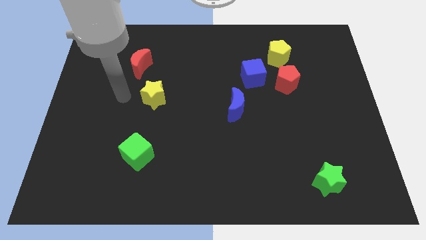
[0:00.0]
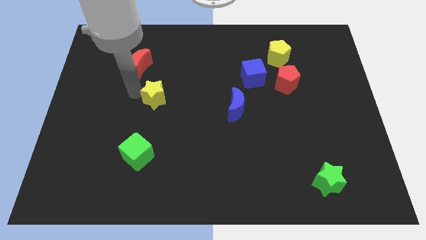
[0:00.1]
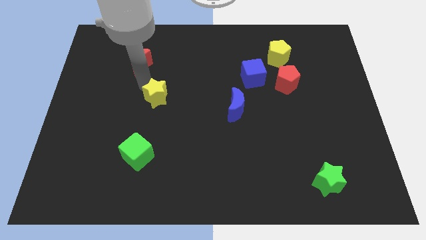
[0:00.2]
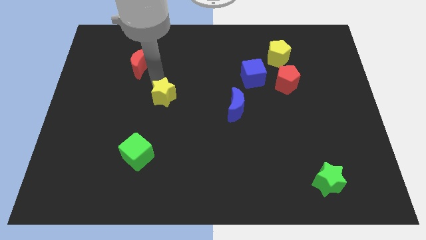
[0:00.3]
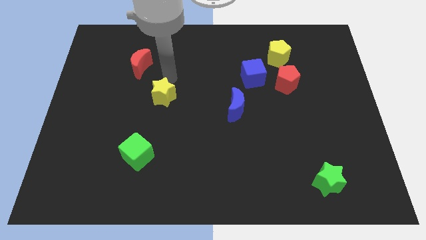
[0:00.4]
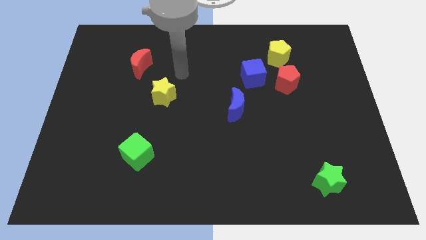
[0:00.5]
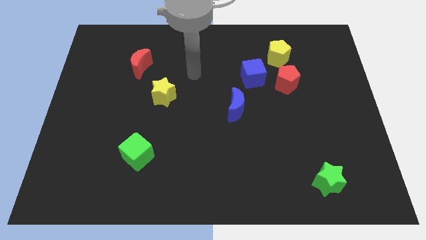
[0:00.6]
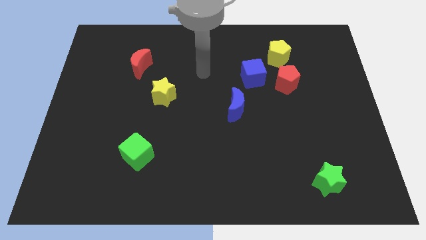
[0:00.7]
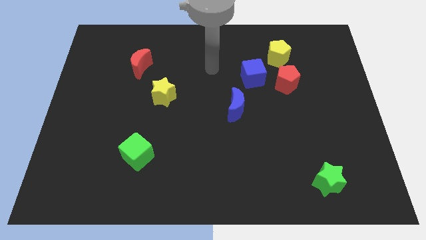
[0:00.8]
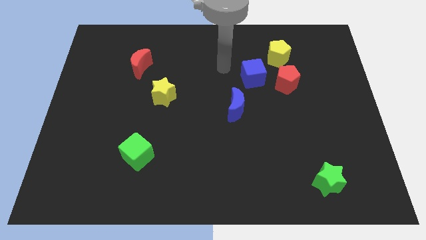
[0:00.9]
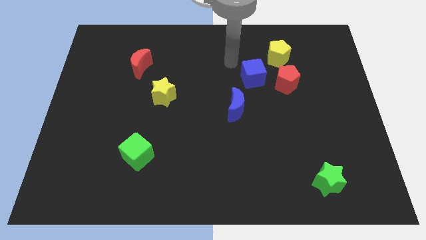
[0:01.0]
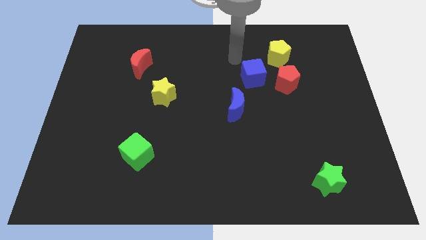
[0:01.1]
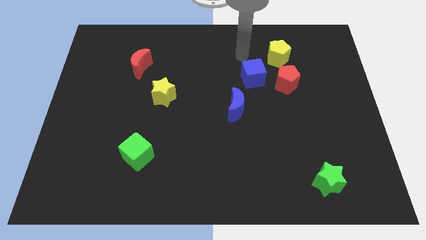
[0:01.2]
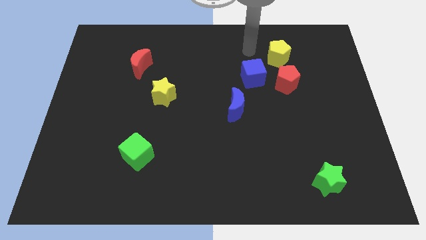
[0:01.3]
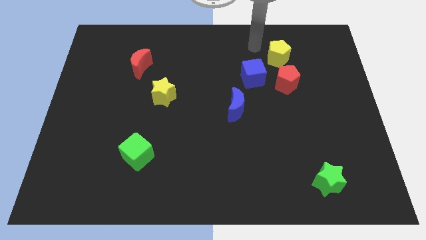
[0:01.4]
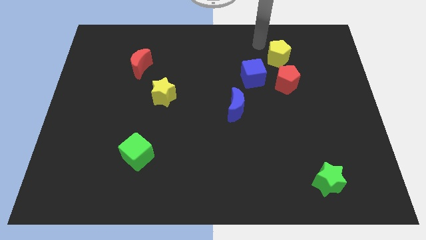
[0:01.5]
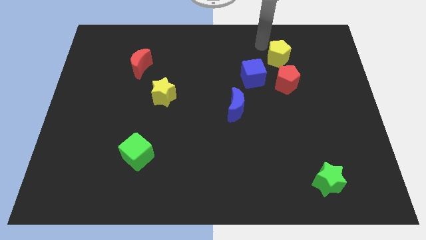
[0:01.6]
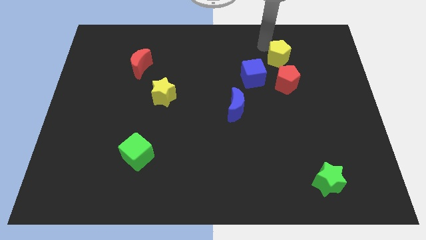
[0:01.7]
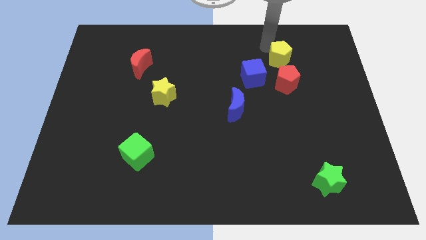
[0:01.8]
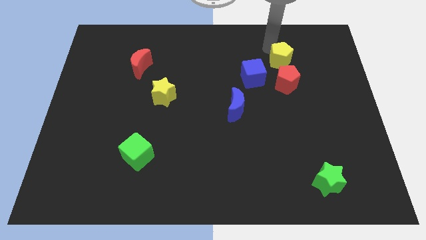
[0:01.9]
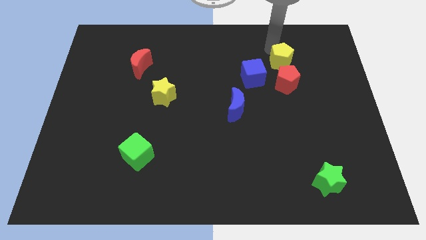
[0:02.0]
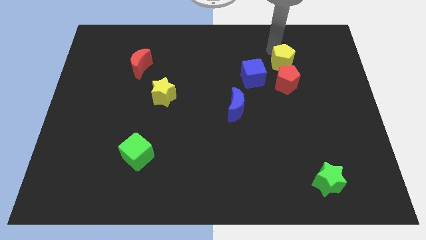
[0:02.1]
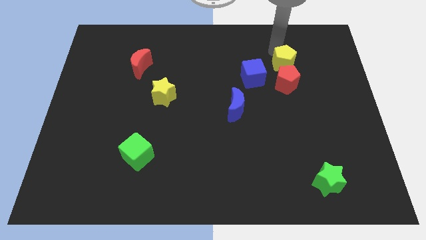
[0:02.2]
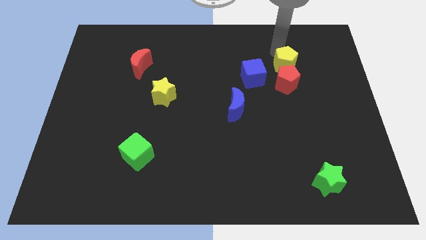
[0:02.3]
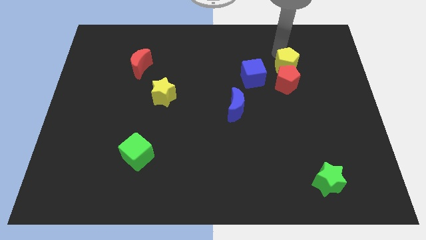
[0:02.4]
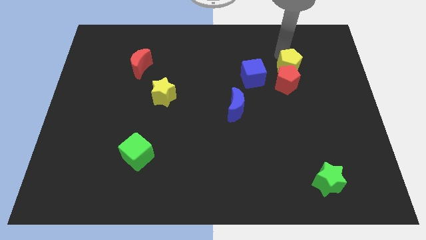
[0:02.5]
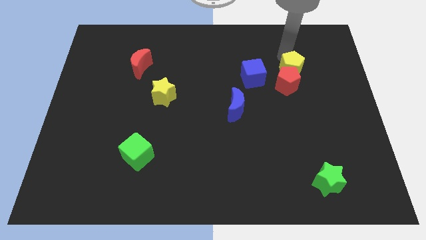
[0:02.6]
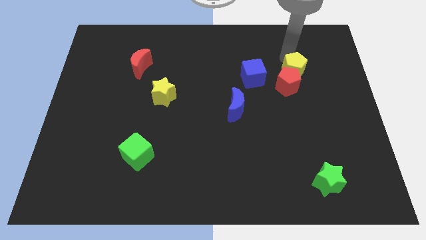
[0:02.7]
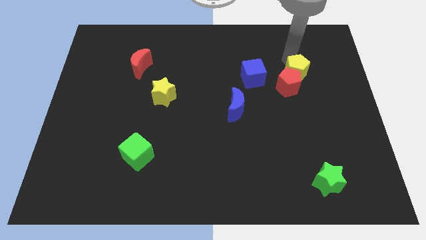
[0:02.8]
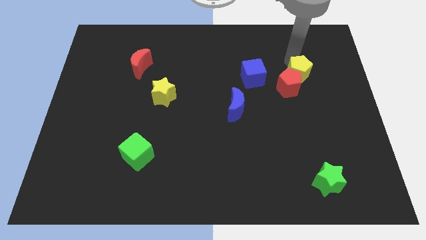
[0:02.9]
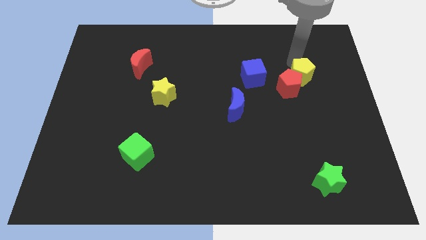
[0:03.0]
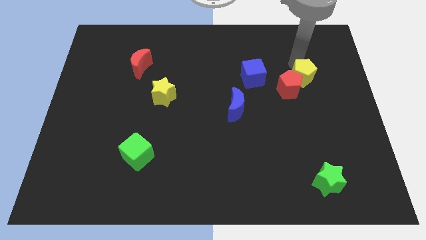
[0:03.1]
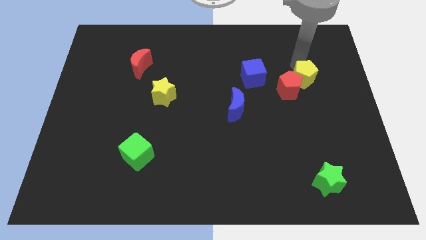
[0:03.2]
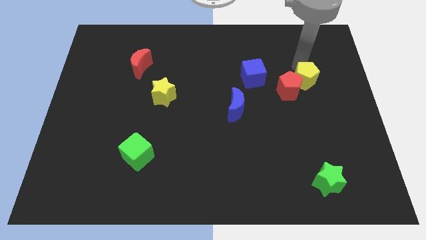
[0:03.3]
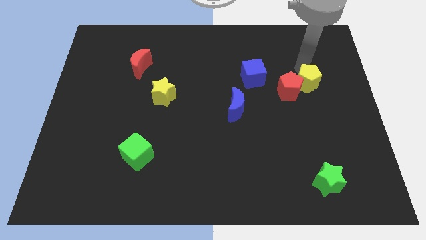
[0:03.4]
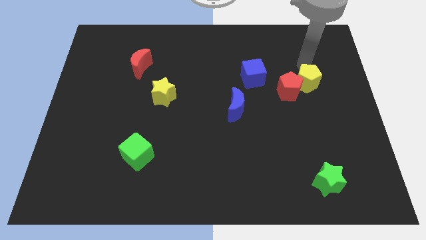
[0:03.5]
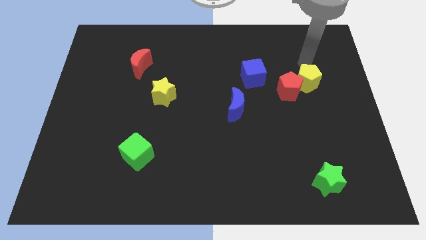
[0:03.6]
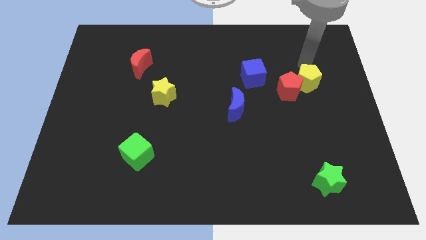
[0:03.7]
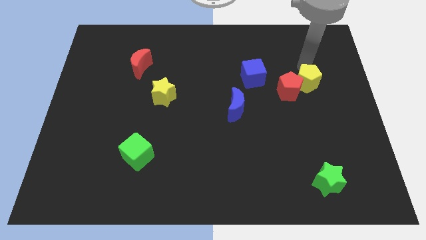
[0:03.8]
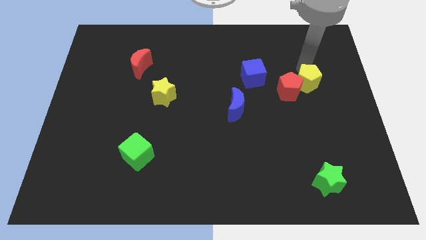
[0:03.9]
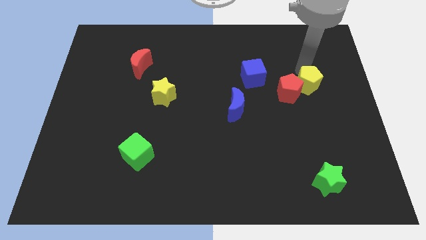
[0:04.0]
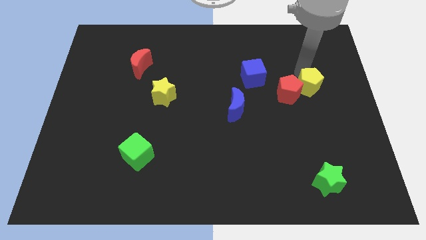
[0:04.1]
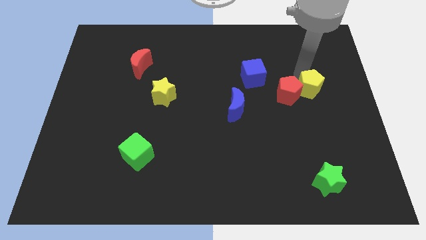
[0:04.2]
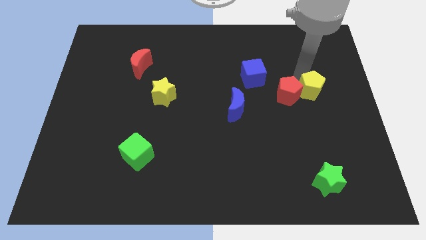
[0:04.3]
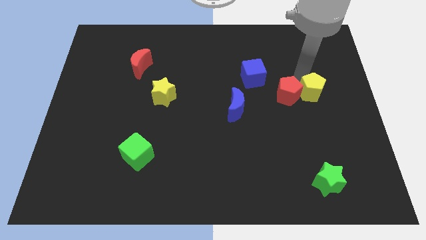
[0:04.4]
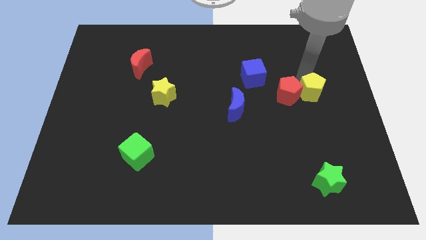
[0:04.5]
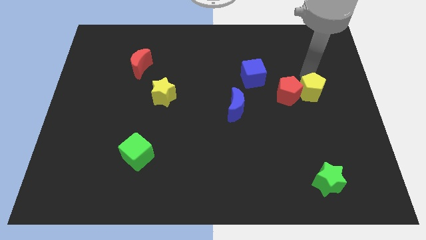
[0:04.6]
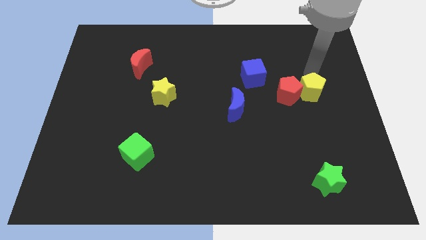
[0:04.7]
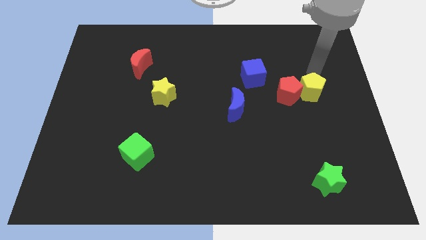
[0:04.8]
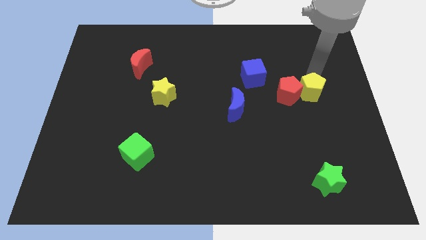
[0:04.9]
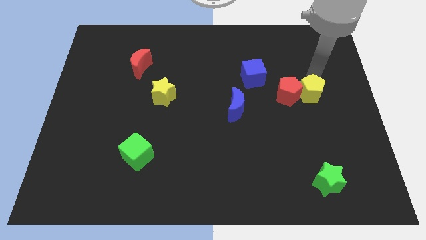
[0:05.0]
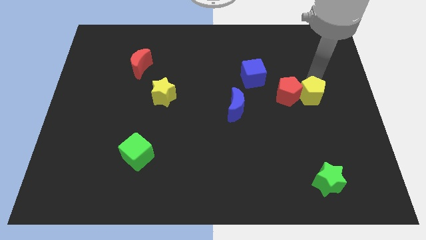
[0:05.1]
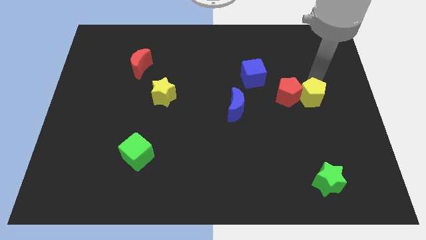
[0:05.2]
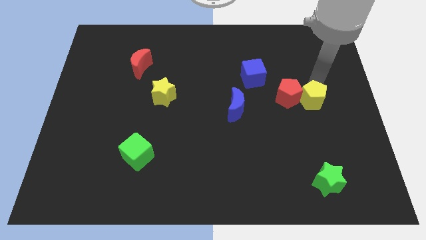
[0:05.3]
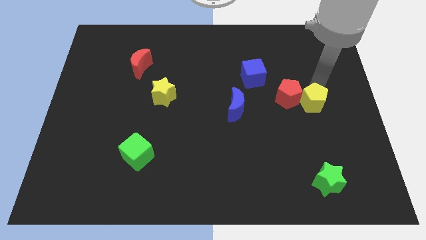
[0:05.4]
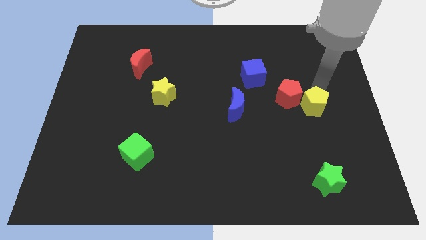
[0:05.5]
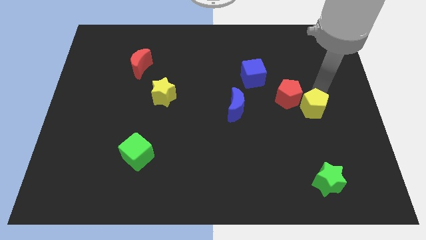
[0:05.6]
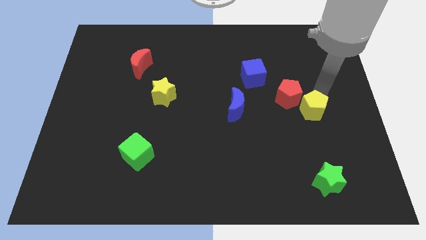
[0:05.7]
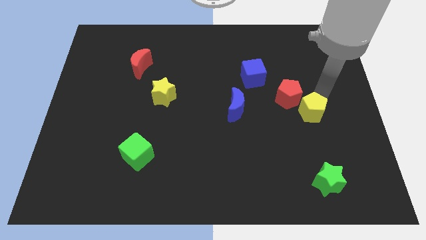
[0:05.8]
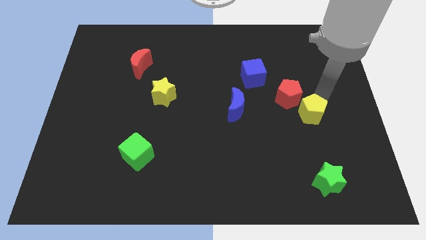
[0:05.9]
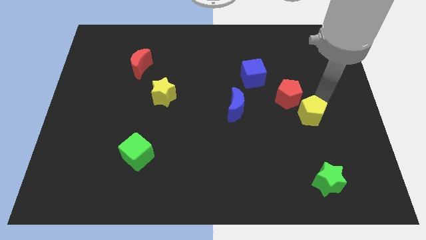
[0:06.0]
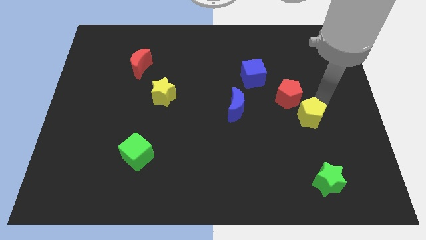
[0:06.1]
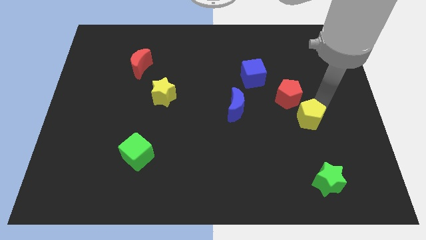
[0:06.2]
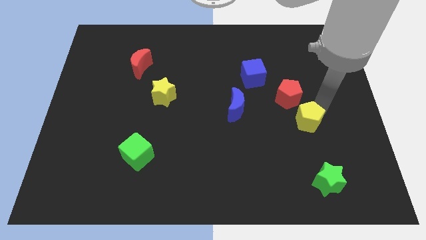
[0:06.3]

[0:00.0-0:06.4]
push the yellow pentagon downwards

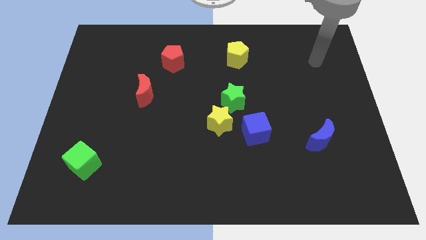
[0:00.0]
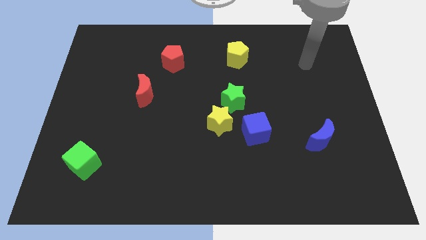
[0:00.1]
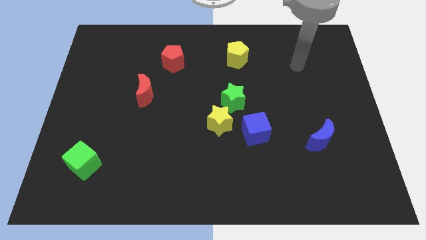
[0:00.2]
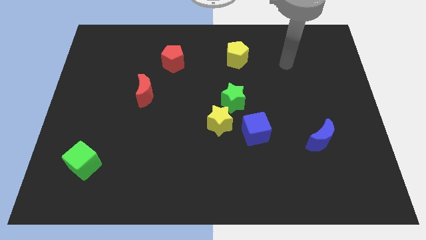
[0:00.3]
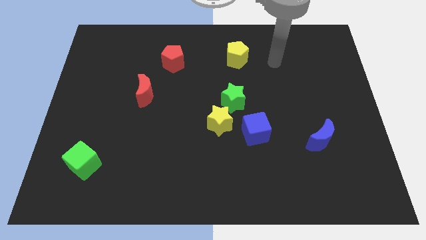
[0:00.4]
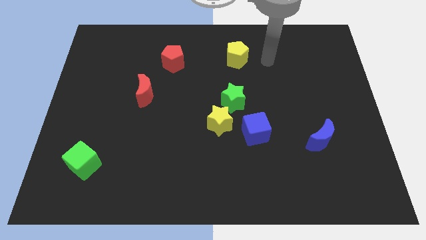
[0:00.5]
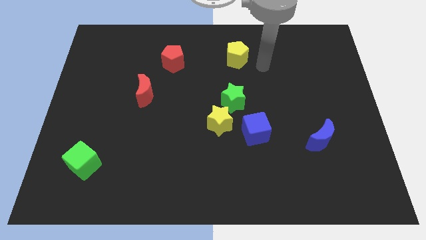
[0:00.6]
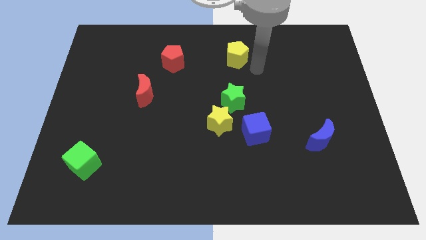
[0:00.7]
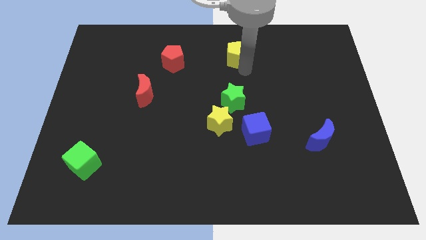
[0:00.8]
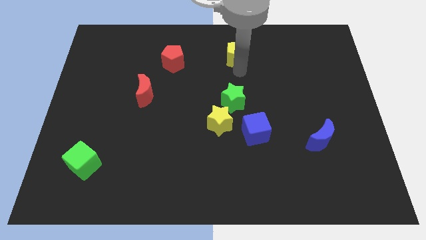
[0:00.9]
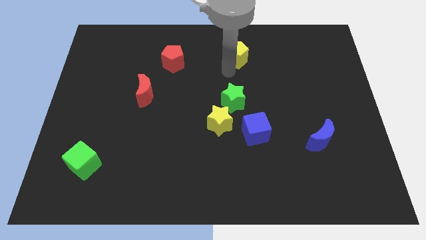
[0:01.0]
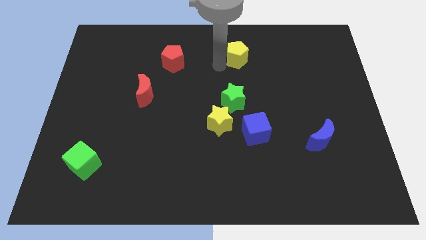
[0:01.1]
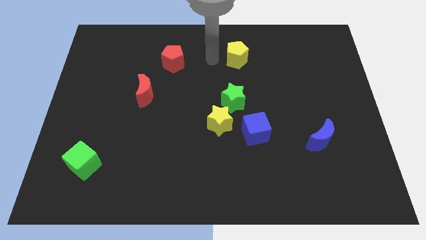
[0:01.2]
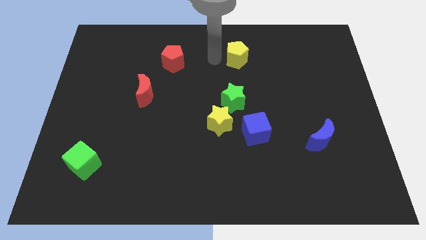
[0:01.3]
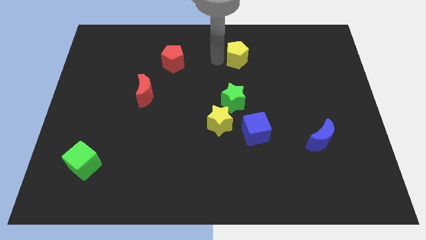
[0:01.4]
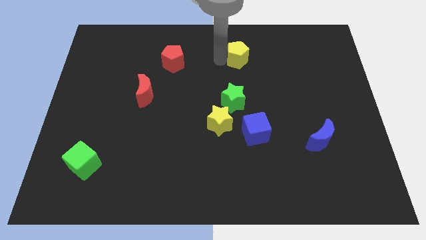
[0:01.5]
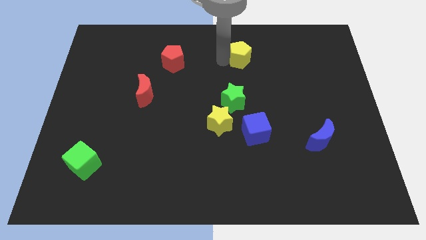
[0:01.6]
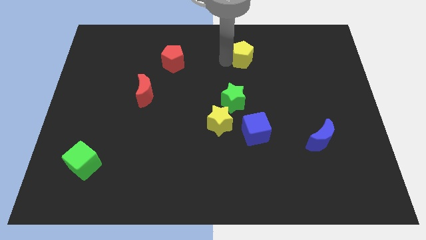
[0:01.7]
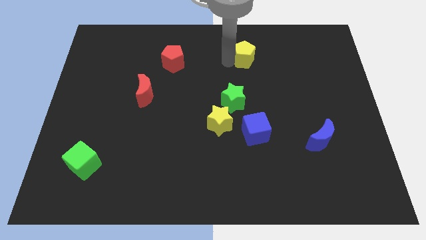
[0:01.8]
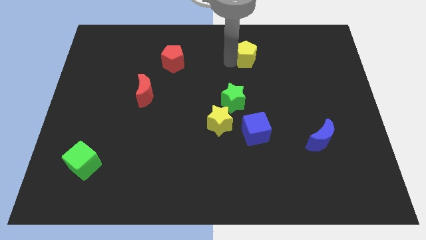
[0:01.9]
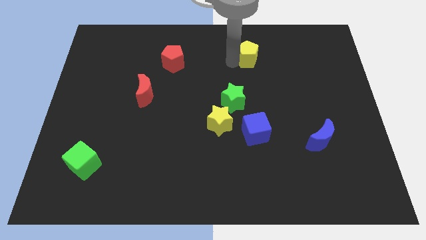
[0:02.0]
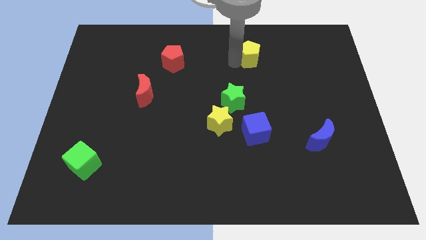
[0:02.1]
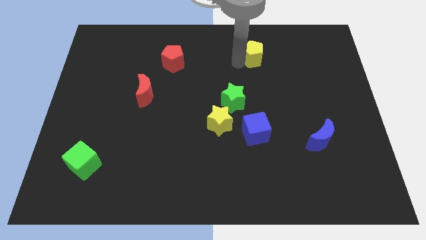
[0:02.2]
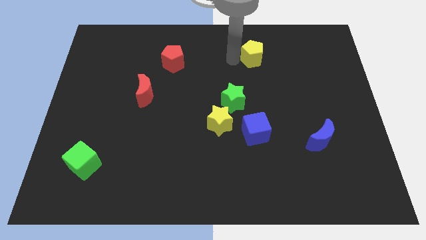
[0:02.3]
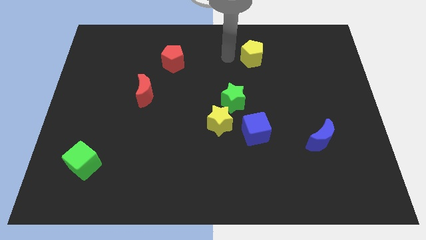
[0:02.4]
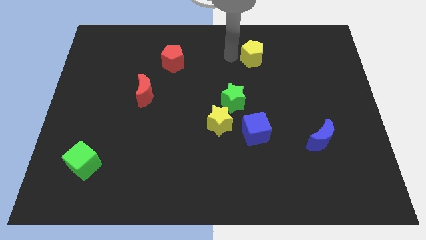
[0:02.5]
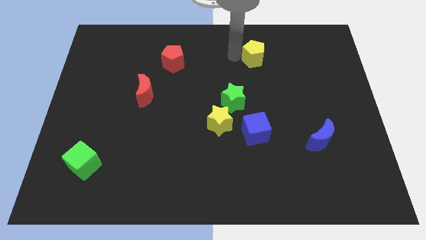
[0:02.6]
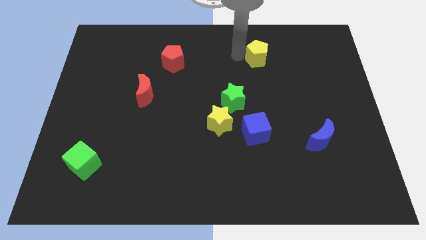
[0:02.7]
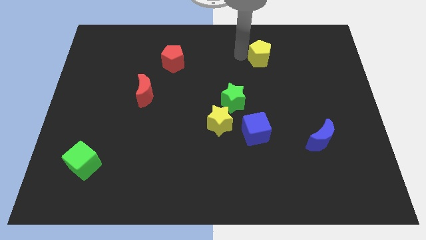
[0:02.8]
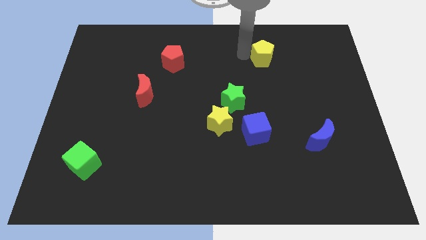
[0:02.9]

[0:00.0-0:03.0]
slightly push the yellow pentagon right
